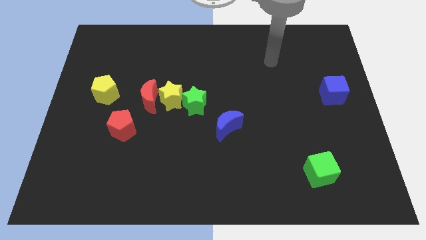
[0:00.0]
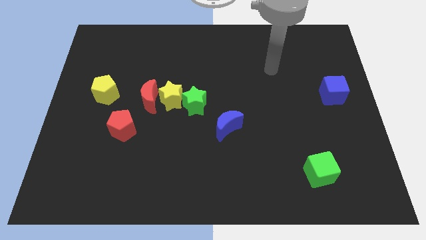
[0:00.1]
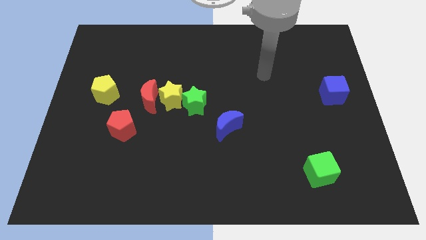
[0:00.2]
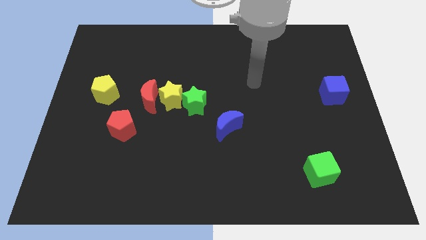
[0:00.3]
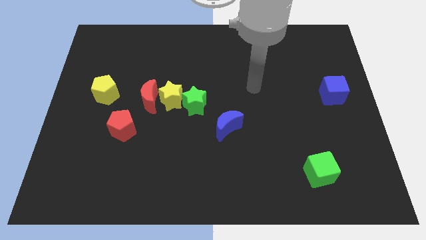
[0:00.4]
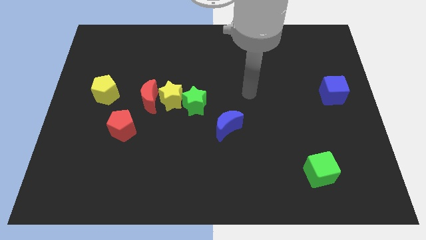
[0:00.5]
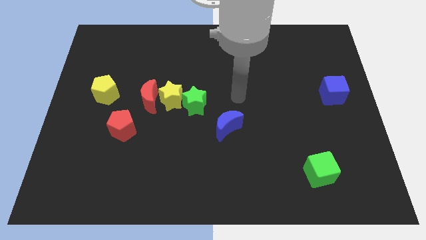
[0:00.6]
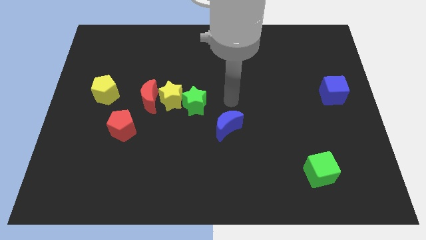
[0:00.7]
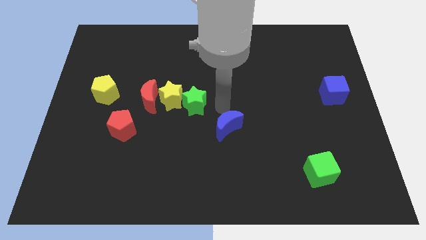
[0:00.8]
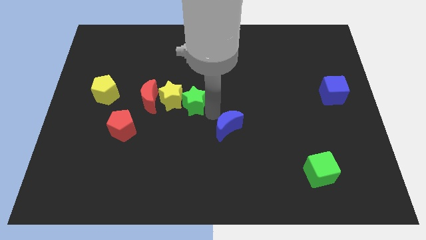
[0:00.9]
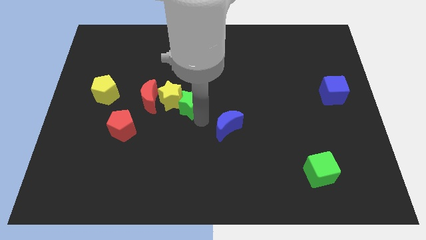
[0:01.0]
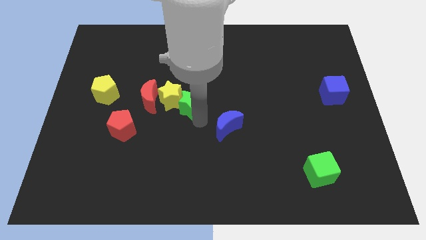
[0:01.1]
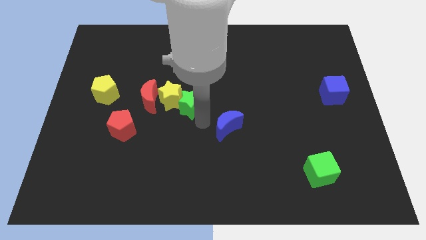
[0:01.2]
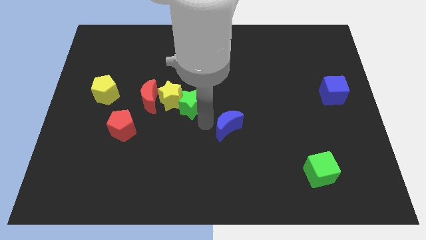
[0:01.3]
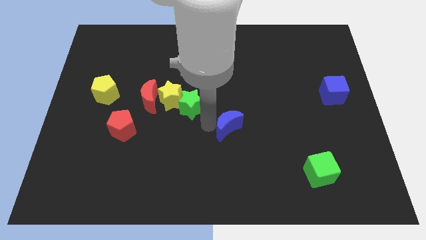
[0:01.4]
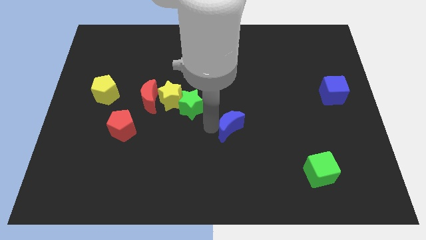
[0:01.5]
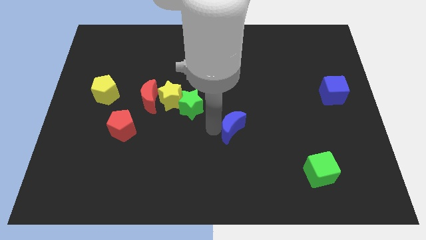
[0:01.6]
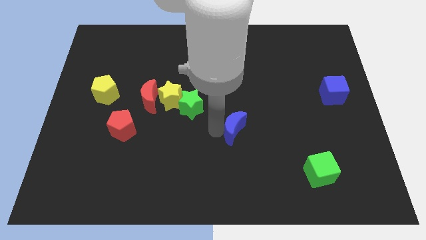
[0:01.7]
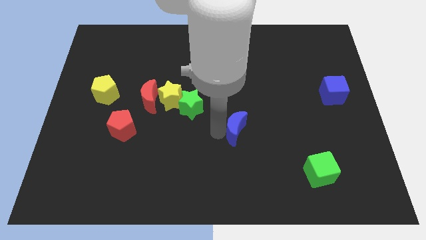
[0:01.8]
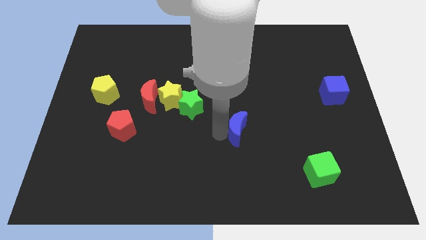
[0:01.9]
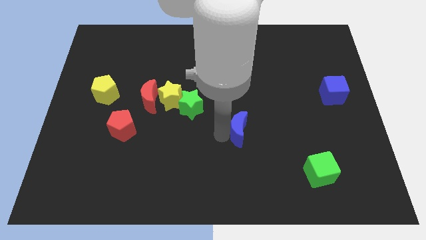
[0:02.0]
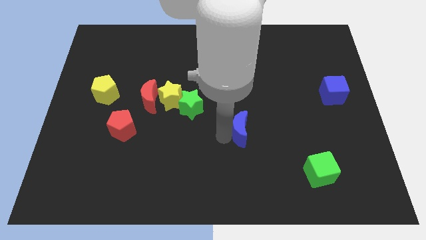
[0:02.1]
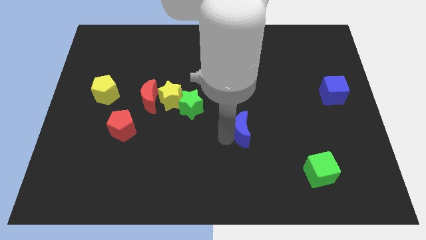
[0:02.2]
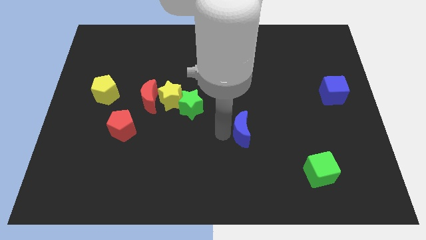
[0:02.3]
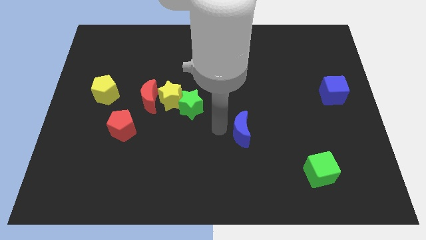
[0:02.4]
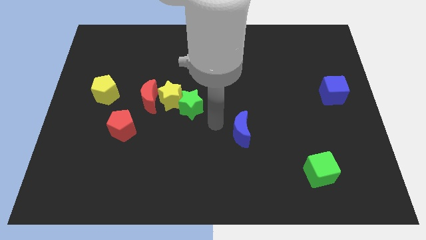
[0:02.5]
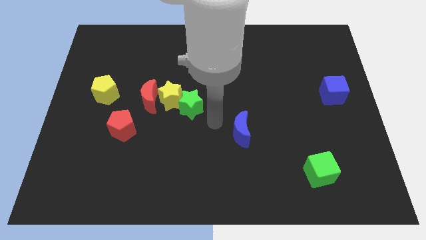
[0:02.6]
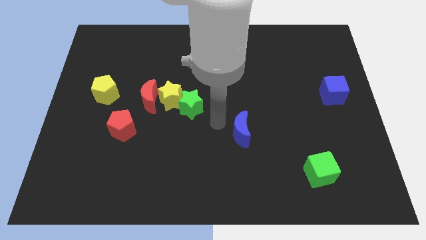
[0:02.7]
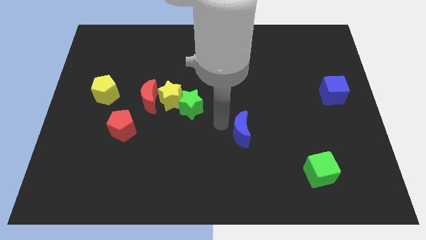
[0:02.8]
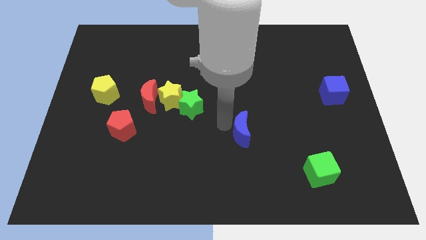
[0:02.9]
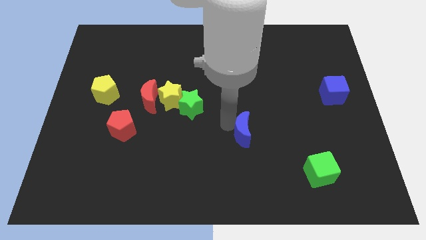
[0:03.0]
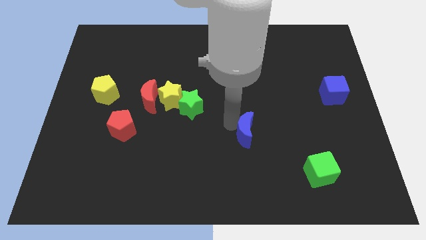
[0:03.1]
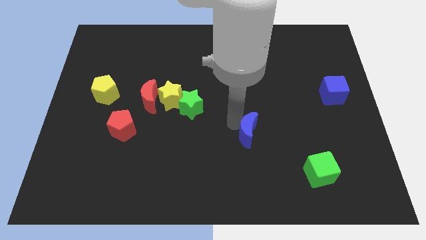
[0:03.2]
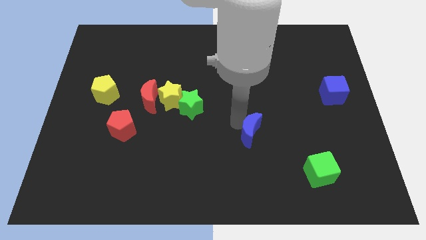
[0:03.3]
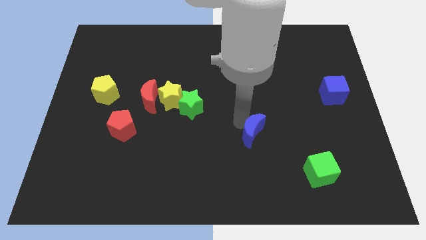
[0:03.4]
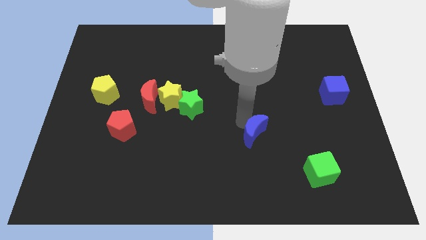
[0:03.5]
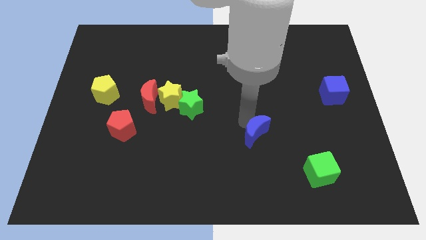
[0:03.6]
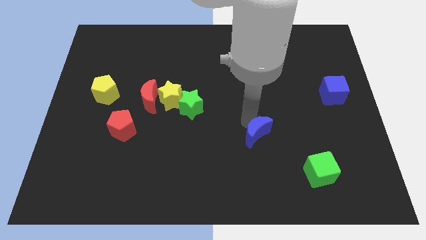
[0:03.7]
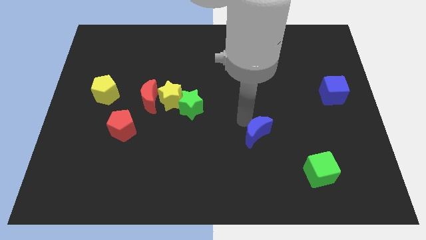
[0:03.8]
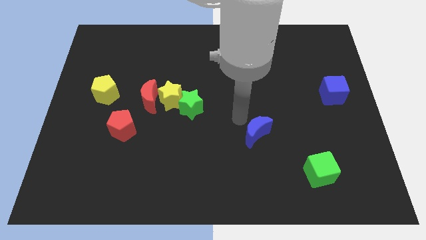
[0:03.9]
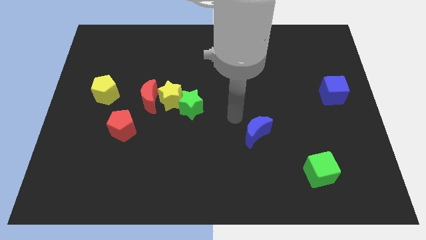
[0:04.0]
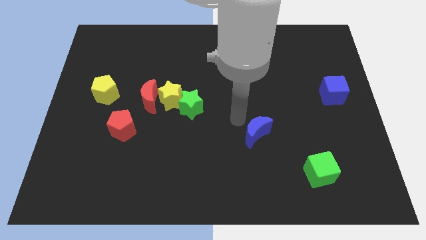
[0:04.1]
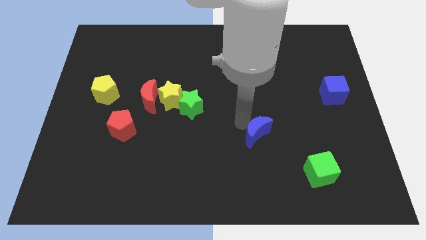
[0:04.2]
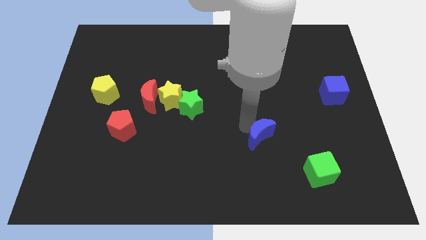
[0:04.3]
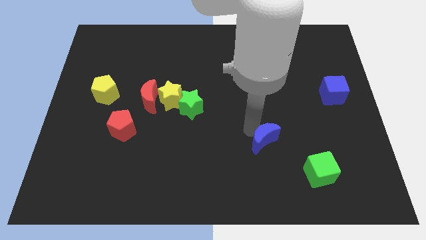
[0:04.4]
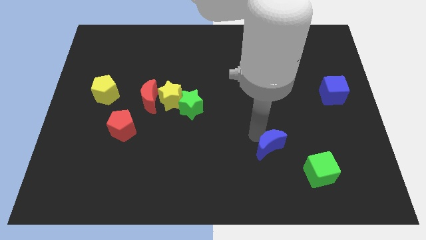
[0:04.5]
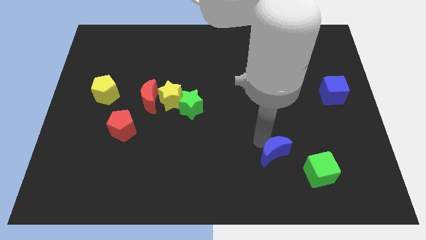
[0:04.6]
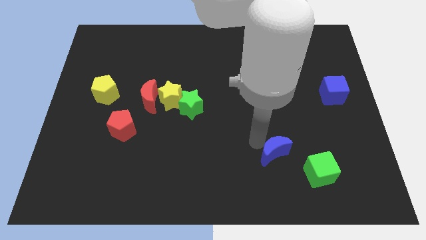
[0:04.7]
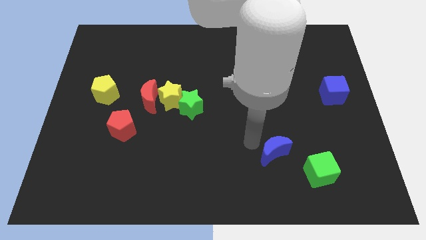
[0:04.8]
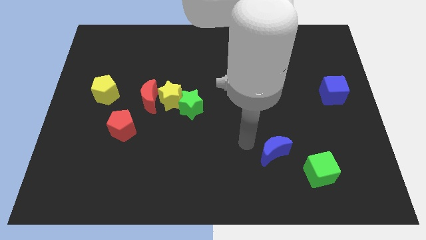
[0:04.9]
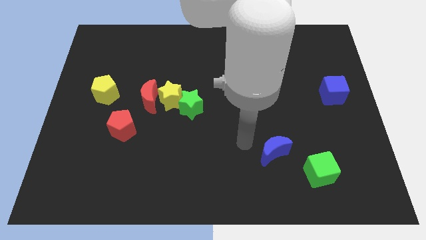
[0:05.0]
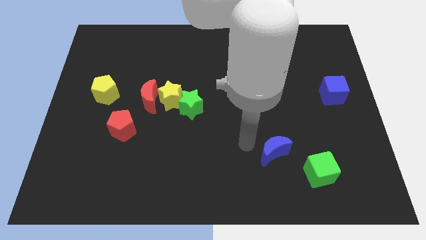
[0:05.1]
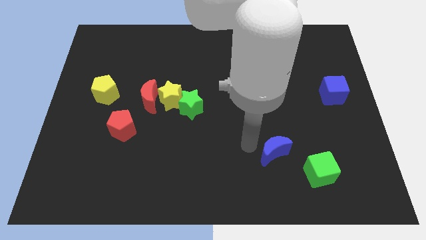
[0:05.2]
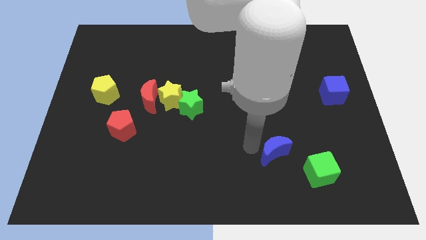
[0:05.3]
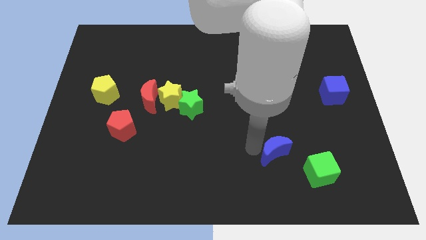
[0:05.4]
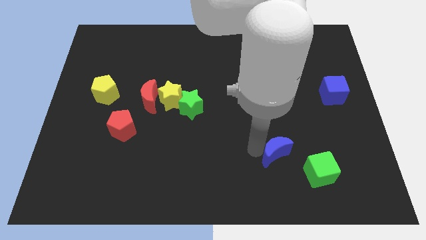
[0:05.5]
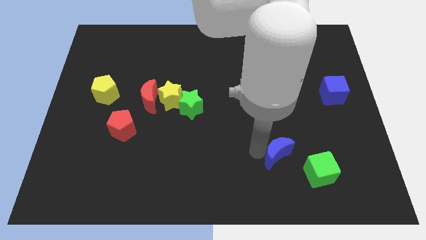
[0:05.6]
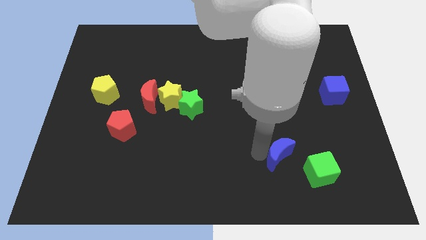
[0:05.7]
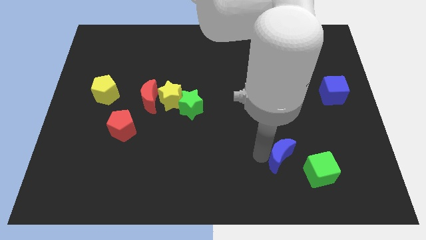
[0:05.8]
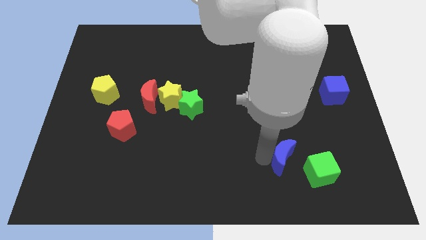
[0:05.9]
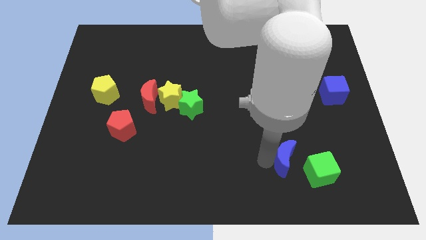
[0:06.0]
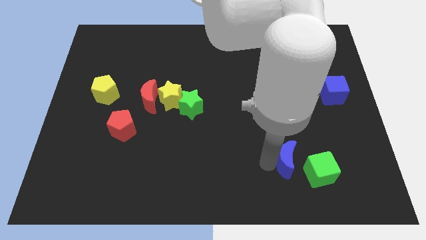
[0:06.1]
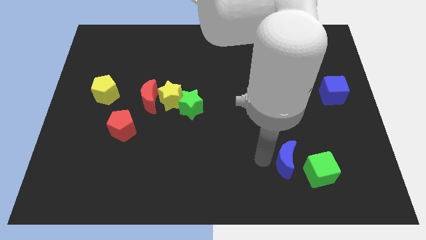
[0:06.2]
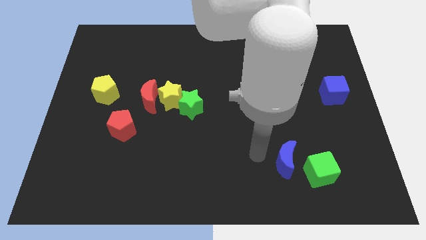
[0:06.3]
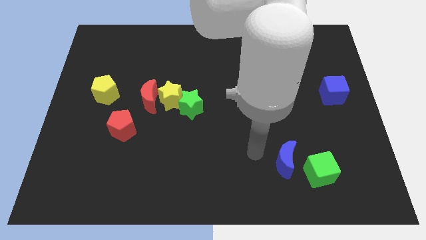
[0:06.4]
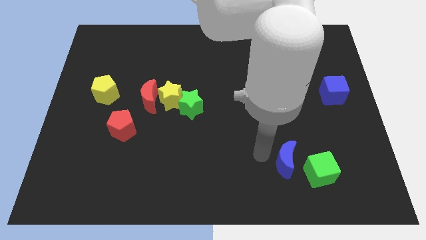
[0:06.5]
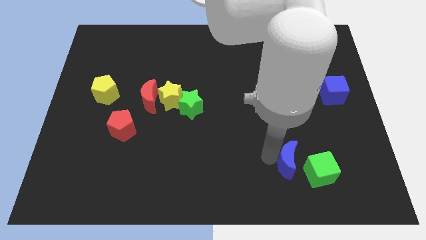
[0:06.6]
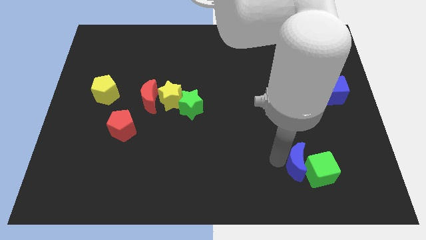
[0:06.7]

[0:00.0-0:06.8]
slide the blue moon towards the green cube
